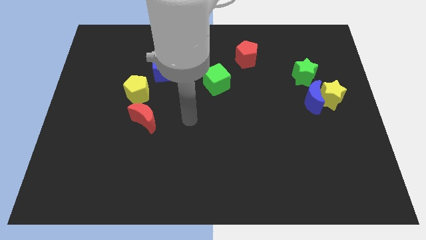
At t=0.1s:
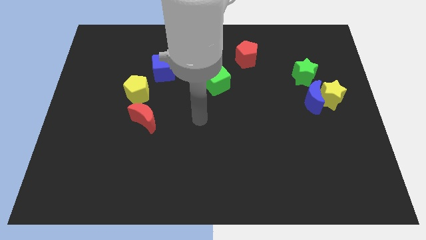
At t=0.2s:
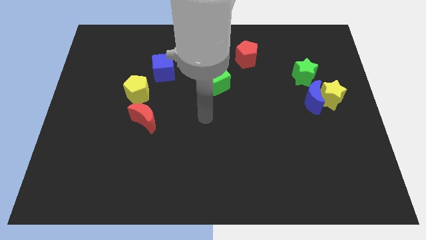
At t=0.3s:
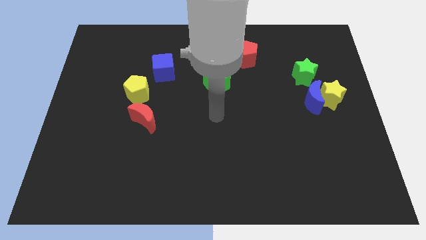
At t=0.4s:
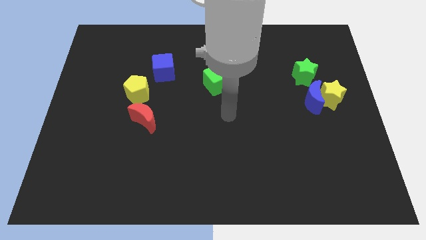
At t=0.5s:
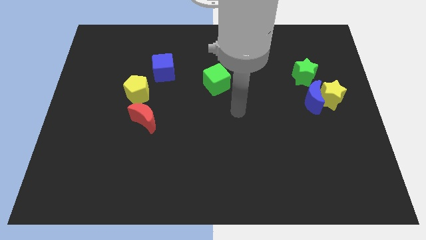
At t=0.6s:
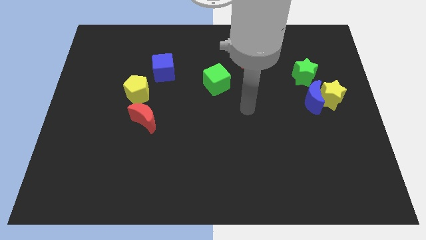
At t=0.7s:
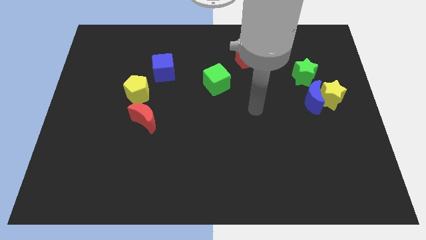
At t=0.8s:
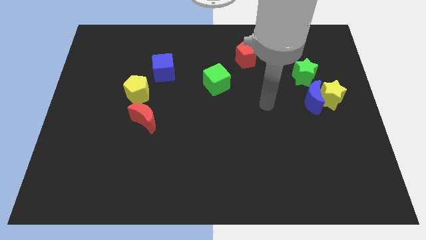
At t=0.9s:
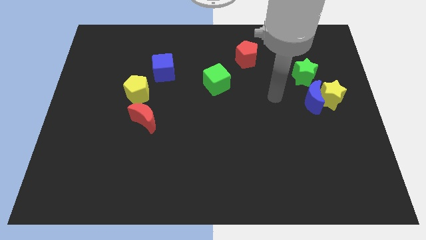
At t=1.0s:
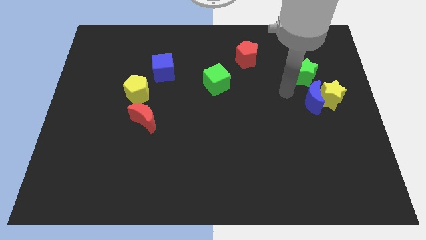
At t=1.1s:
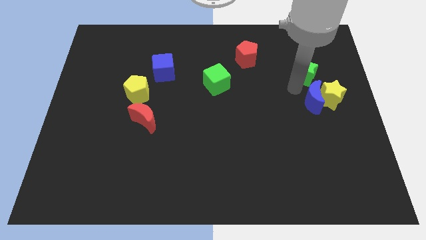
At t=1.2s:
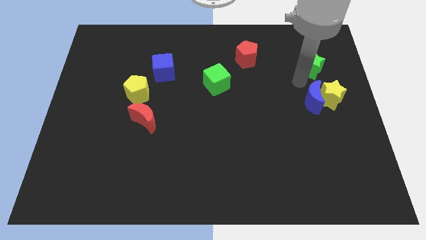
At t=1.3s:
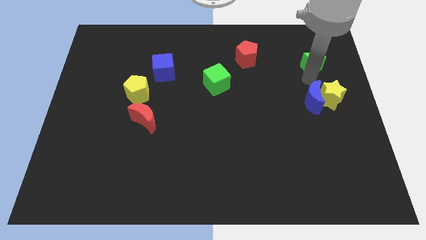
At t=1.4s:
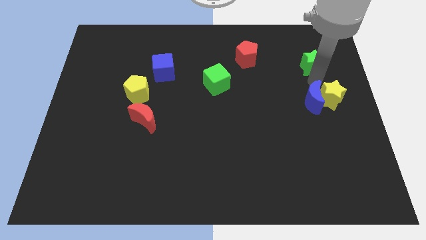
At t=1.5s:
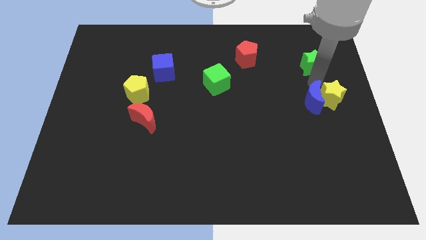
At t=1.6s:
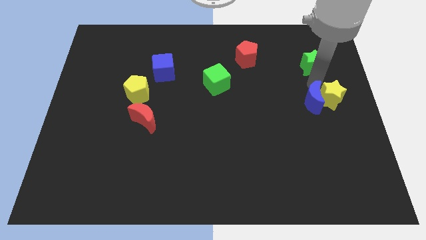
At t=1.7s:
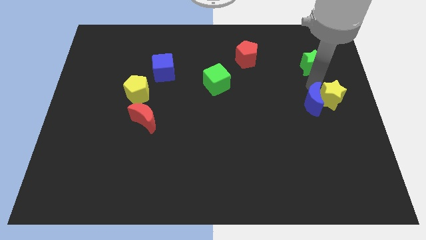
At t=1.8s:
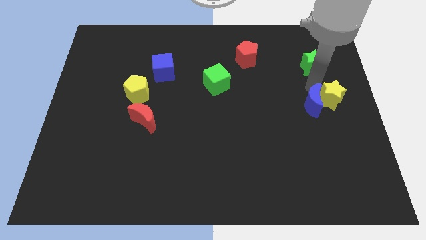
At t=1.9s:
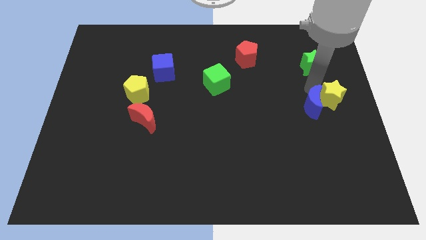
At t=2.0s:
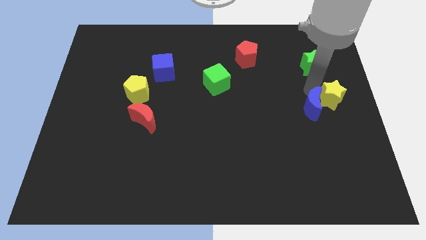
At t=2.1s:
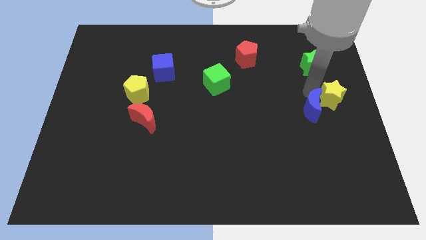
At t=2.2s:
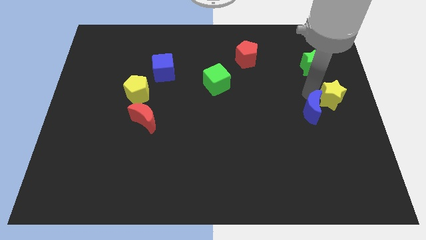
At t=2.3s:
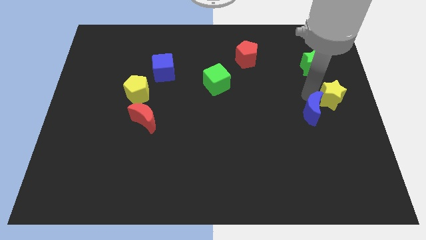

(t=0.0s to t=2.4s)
pull the blue moon apart from the yellow star and green star

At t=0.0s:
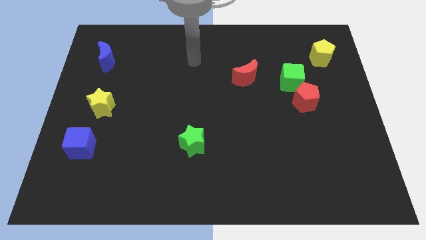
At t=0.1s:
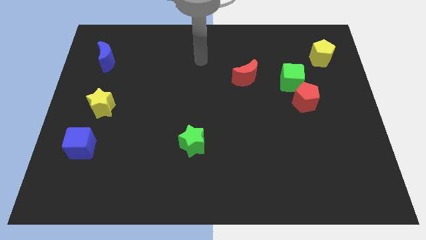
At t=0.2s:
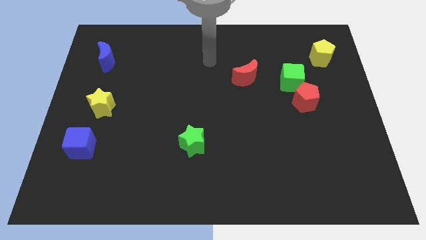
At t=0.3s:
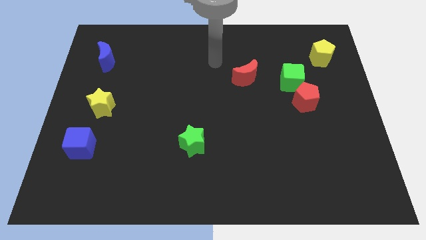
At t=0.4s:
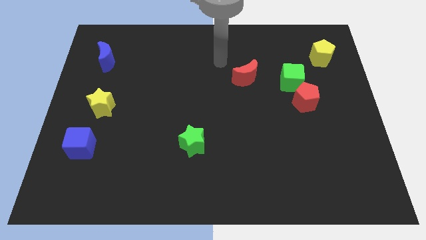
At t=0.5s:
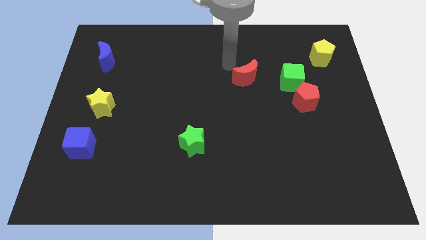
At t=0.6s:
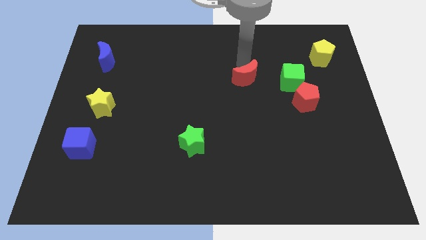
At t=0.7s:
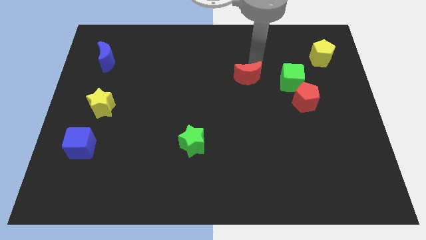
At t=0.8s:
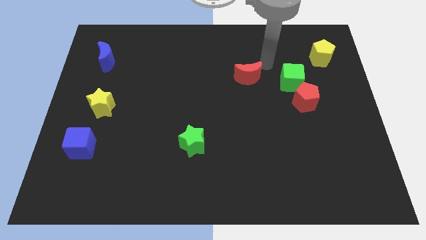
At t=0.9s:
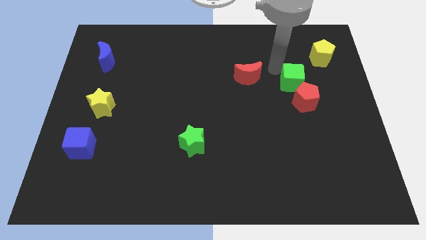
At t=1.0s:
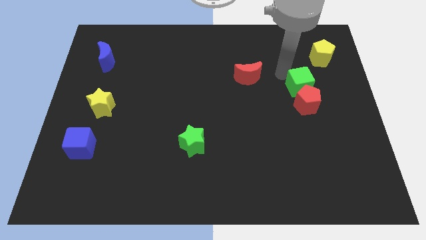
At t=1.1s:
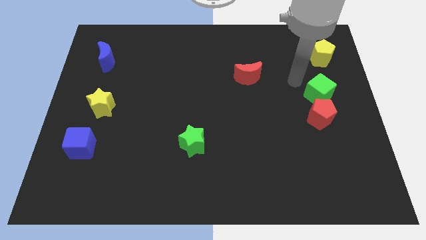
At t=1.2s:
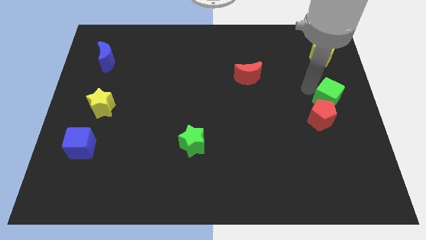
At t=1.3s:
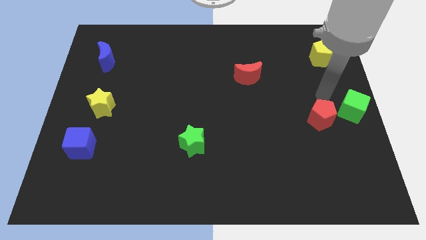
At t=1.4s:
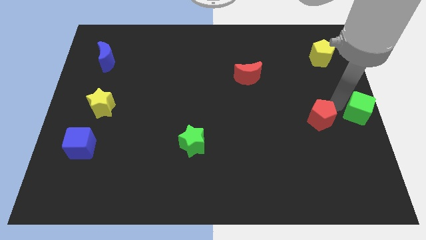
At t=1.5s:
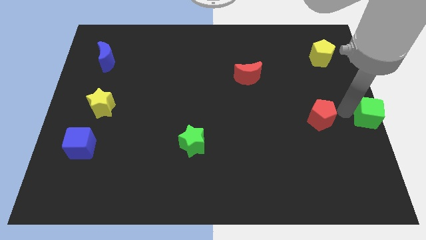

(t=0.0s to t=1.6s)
move the red pentagon away from the green cube

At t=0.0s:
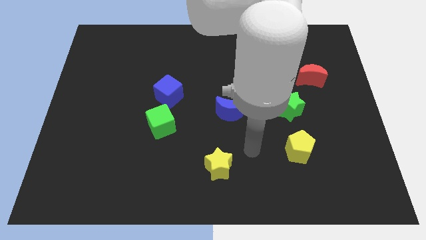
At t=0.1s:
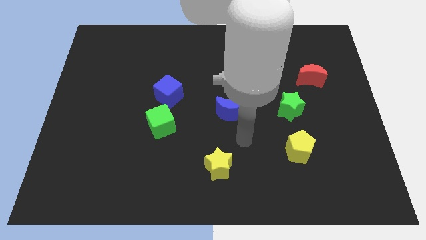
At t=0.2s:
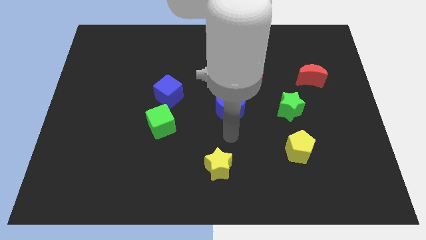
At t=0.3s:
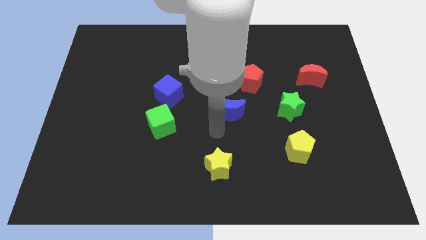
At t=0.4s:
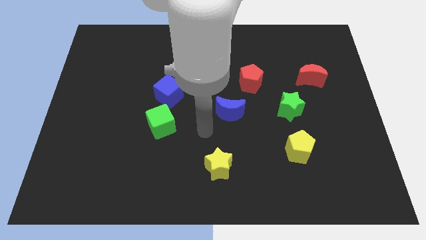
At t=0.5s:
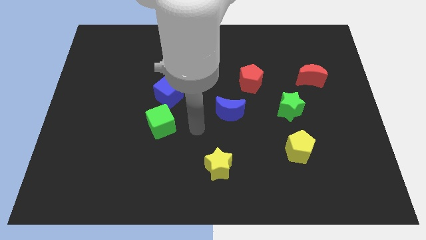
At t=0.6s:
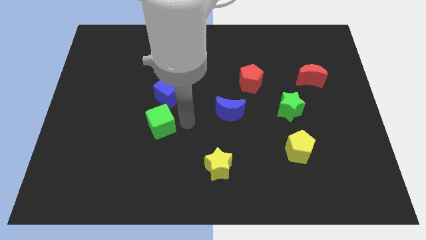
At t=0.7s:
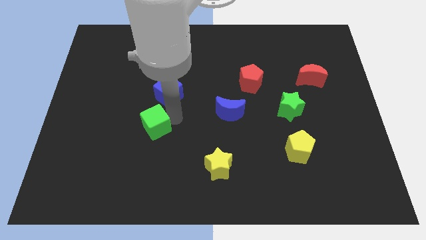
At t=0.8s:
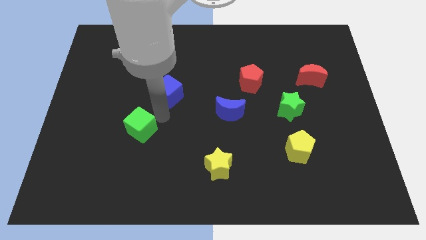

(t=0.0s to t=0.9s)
separate the blue cube from the green cube

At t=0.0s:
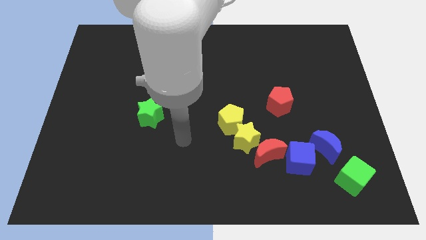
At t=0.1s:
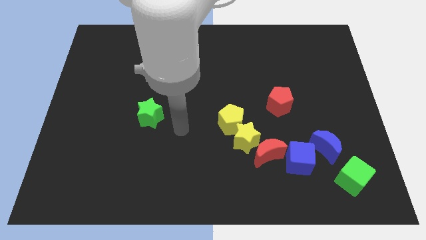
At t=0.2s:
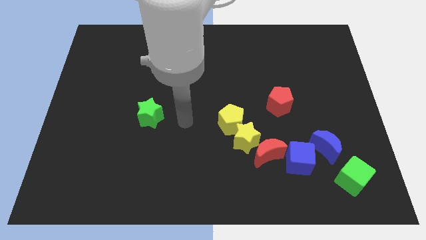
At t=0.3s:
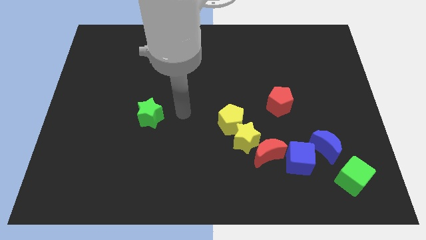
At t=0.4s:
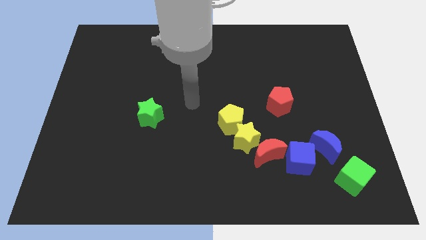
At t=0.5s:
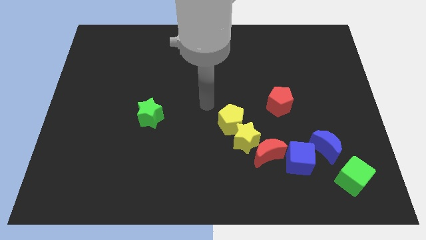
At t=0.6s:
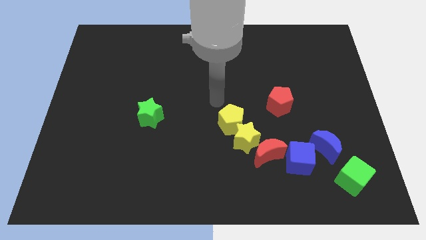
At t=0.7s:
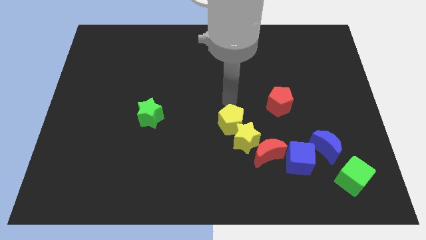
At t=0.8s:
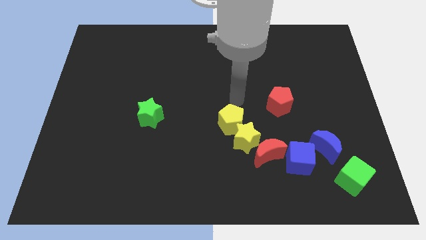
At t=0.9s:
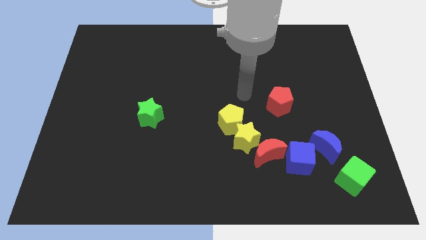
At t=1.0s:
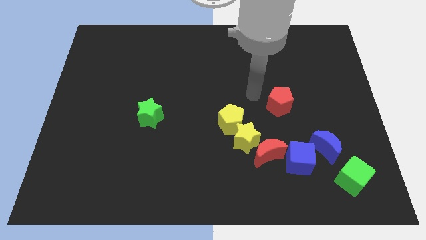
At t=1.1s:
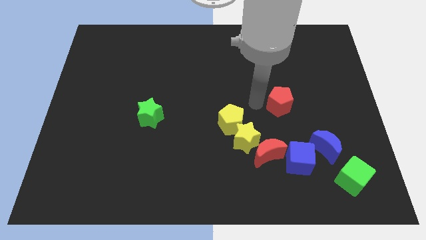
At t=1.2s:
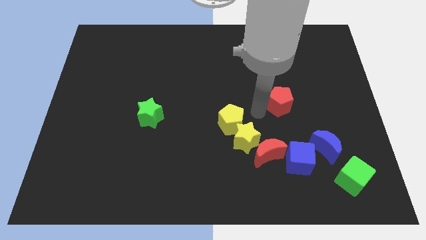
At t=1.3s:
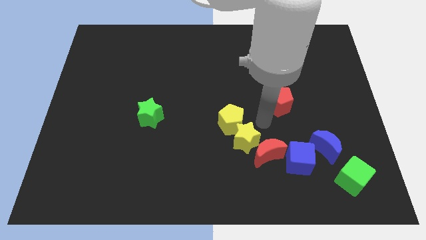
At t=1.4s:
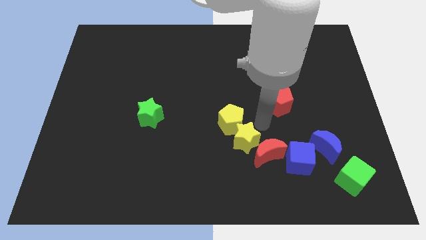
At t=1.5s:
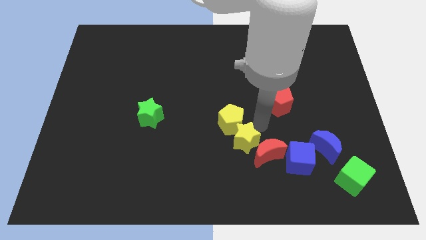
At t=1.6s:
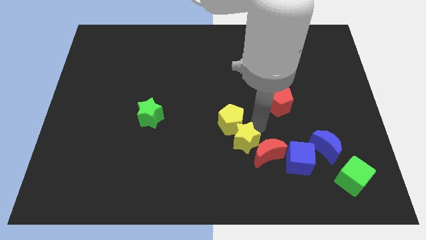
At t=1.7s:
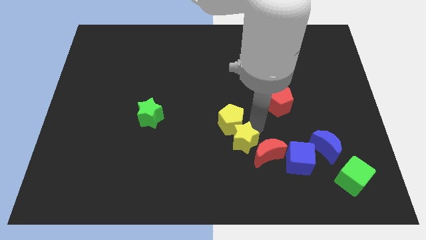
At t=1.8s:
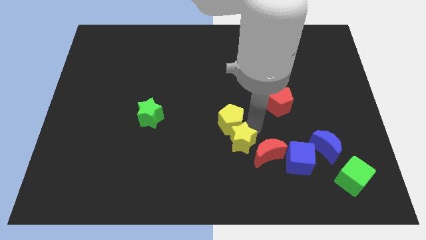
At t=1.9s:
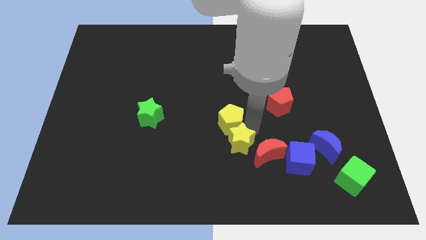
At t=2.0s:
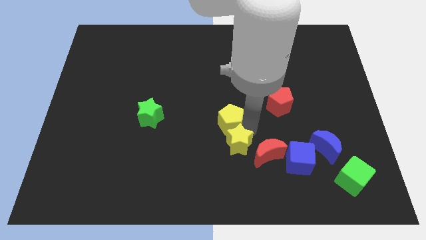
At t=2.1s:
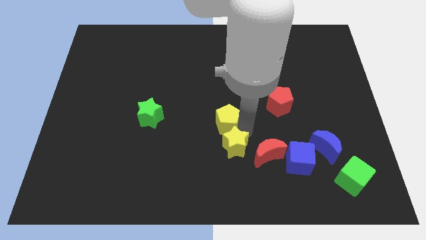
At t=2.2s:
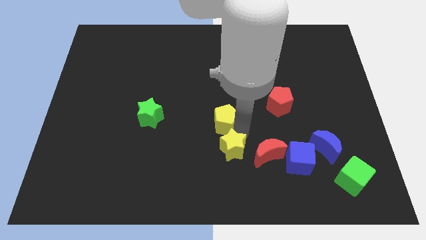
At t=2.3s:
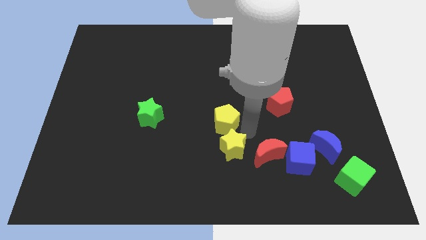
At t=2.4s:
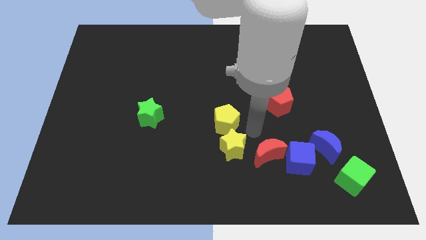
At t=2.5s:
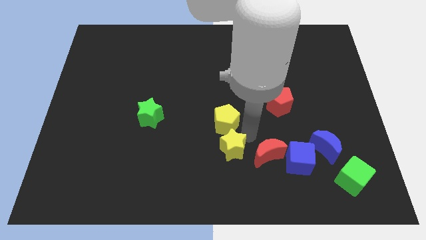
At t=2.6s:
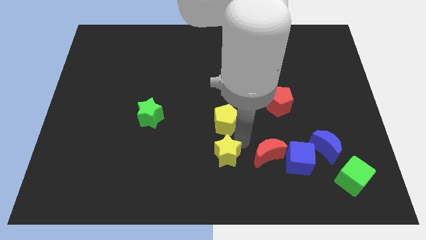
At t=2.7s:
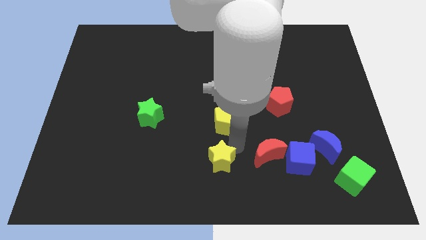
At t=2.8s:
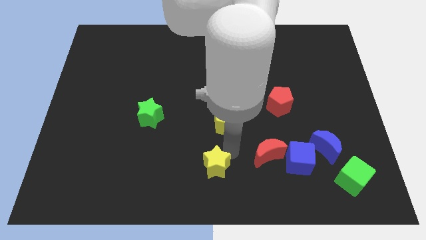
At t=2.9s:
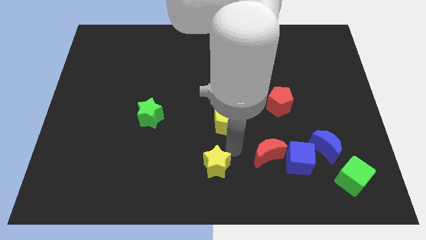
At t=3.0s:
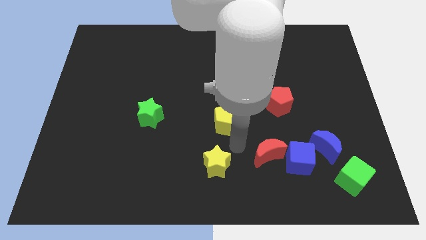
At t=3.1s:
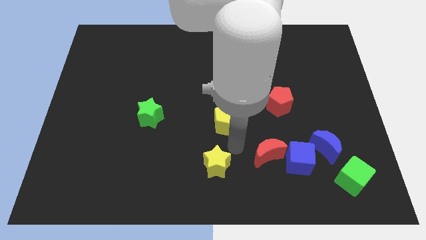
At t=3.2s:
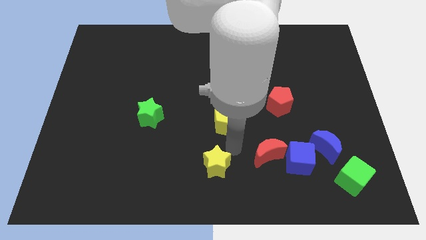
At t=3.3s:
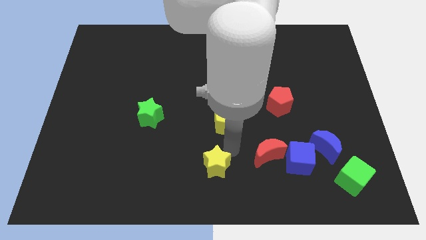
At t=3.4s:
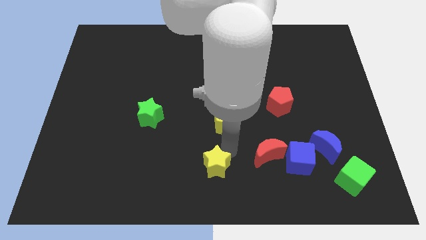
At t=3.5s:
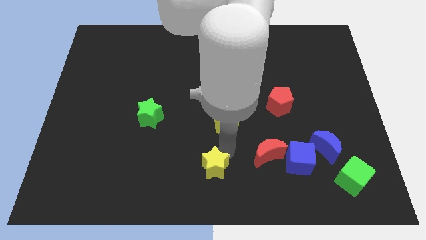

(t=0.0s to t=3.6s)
separate the yellow star from the red moon and yellow pentagon

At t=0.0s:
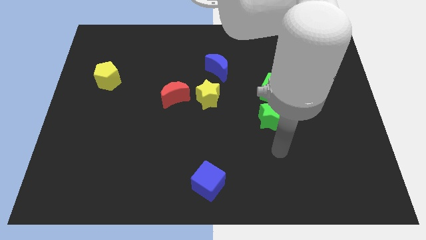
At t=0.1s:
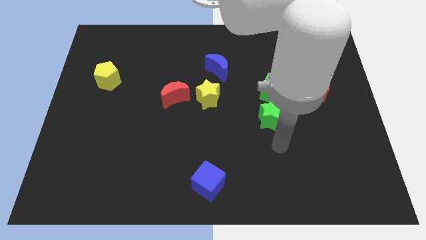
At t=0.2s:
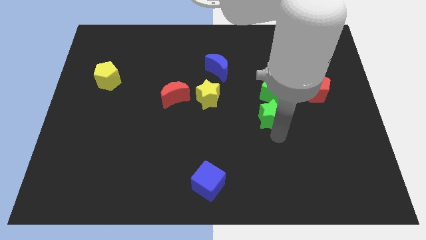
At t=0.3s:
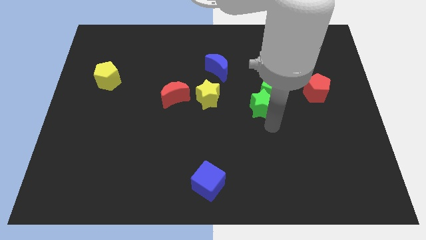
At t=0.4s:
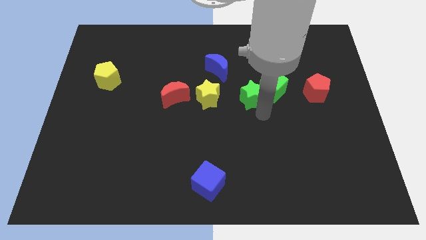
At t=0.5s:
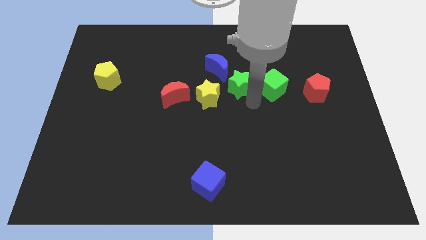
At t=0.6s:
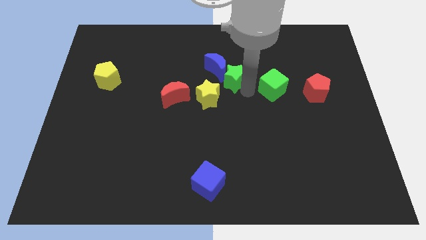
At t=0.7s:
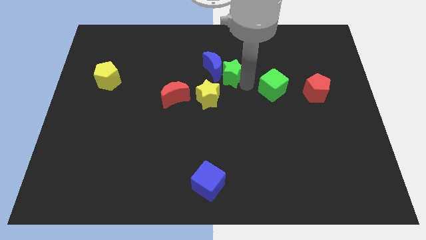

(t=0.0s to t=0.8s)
move the green cube away from the green star
